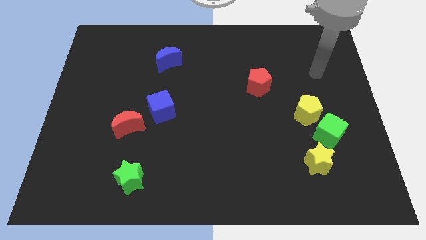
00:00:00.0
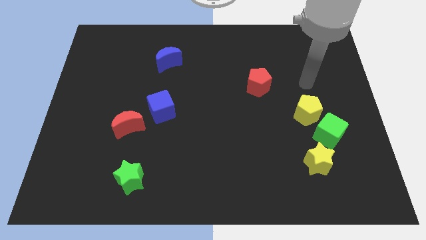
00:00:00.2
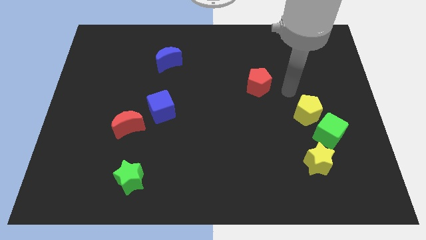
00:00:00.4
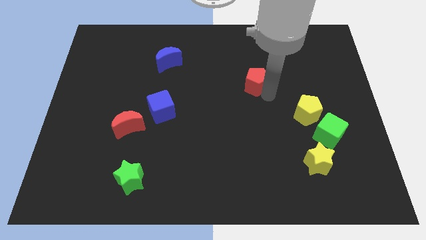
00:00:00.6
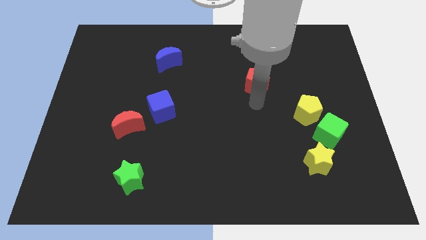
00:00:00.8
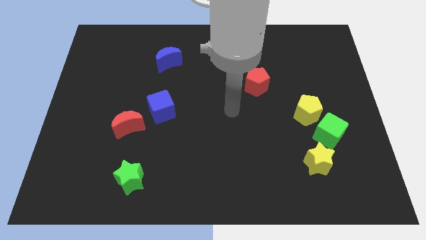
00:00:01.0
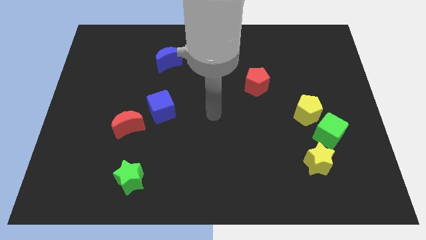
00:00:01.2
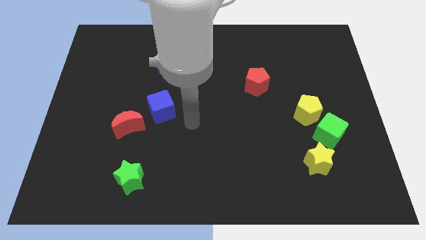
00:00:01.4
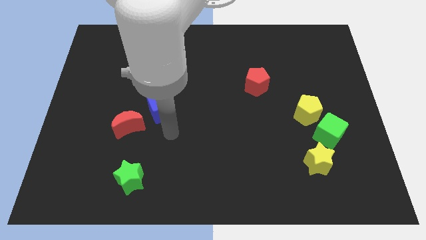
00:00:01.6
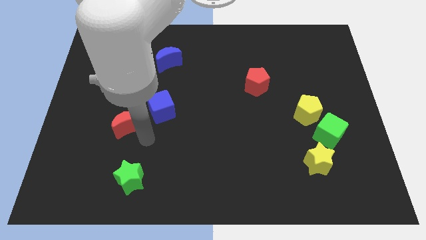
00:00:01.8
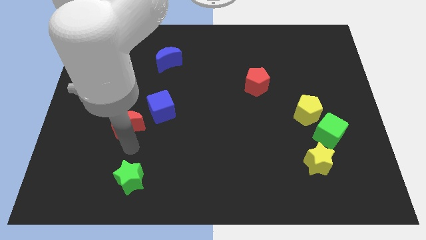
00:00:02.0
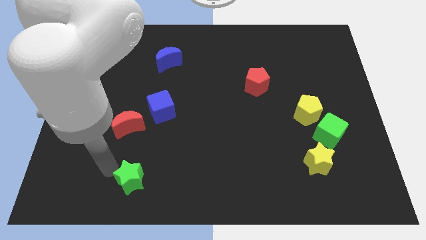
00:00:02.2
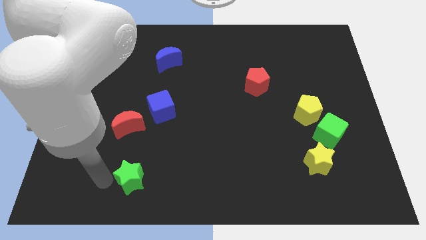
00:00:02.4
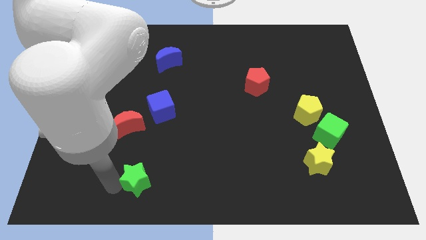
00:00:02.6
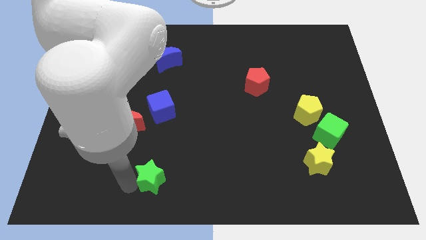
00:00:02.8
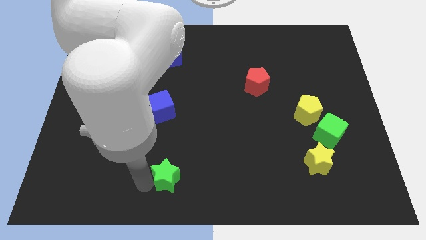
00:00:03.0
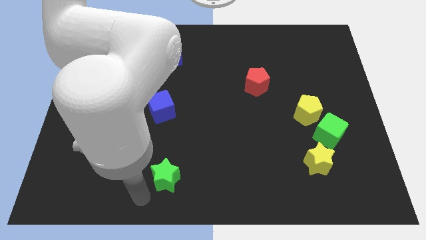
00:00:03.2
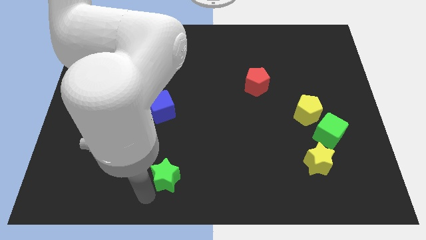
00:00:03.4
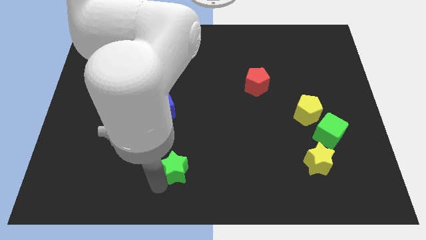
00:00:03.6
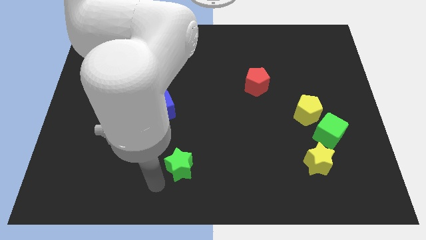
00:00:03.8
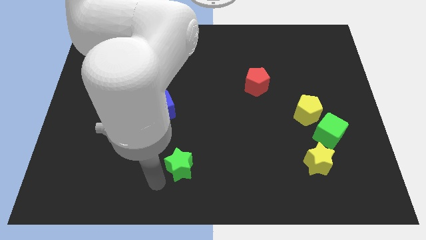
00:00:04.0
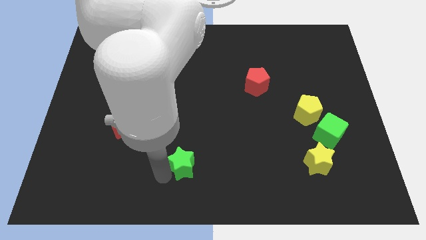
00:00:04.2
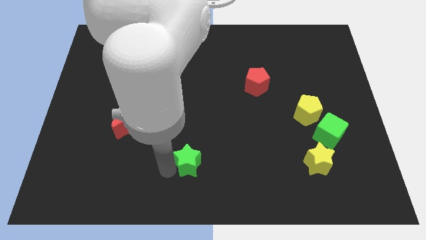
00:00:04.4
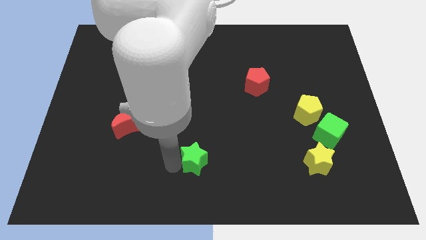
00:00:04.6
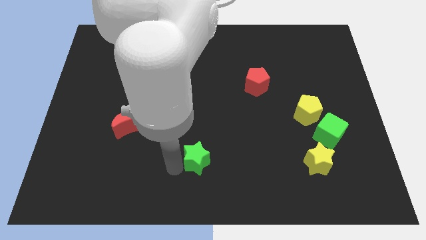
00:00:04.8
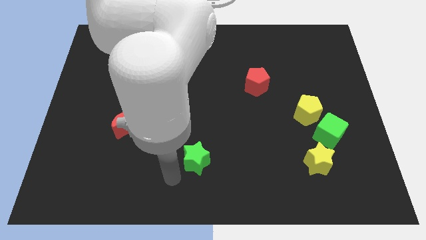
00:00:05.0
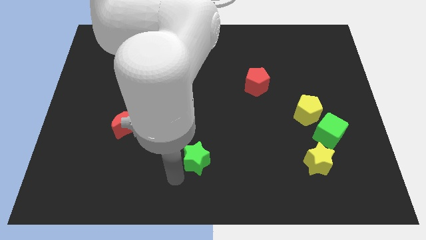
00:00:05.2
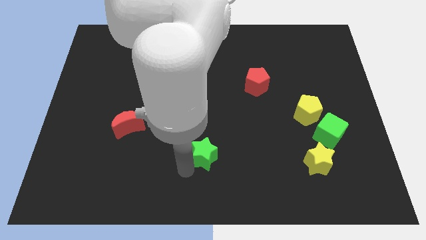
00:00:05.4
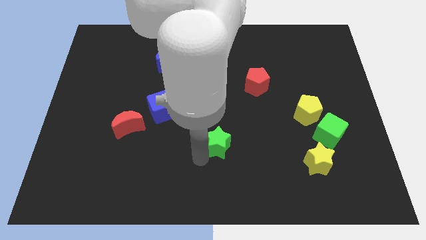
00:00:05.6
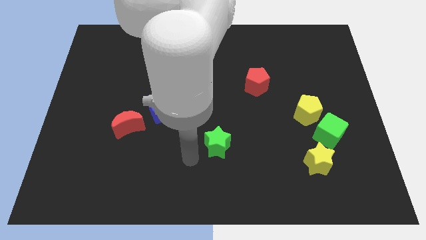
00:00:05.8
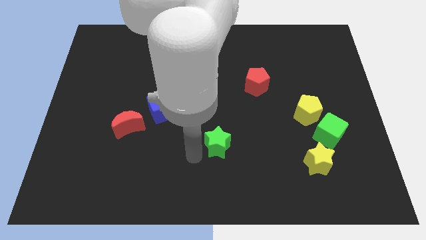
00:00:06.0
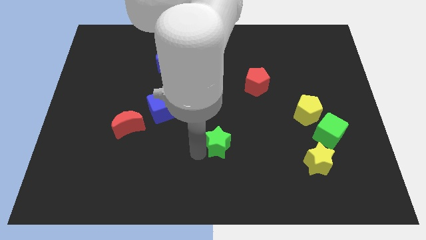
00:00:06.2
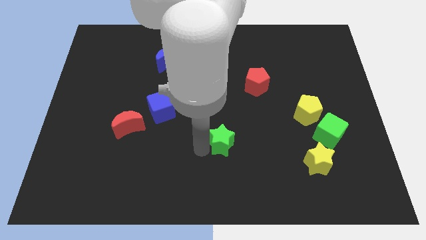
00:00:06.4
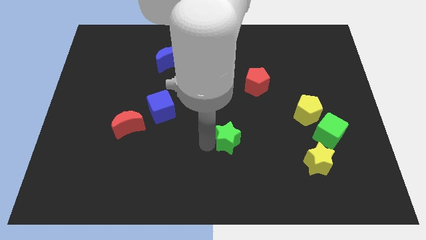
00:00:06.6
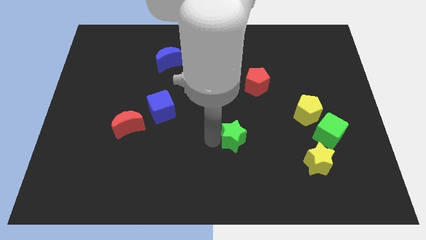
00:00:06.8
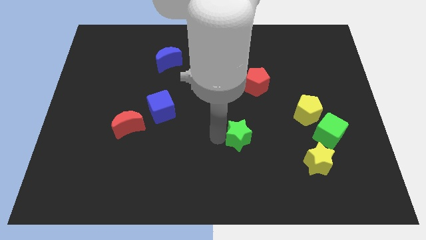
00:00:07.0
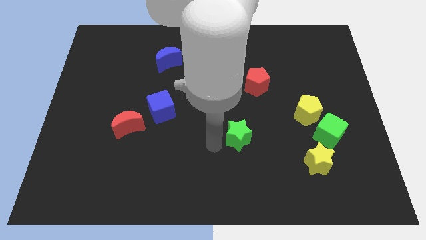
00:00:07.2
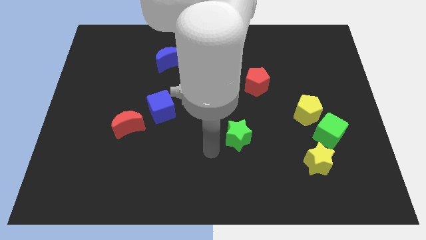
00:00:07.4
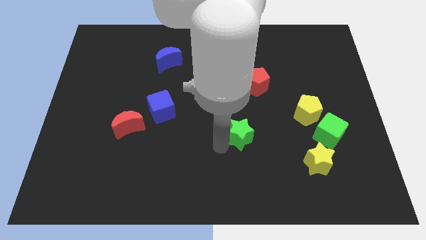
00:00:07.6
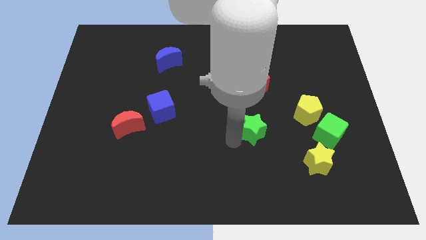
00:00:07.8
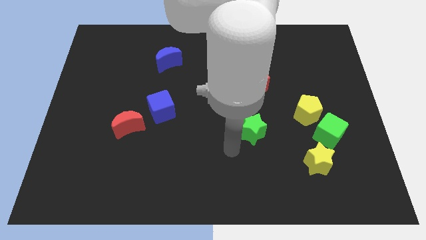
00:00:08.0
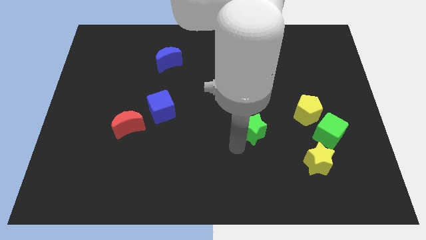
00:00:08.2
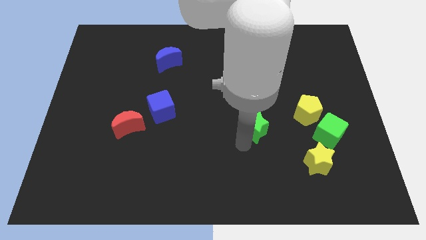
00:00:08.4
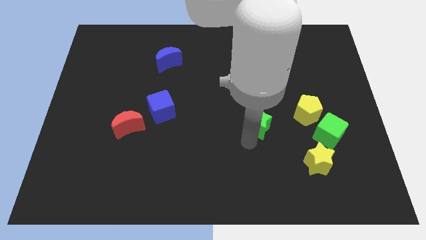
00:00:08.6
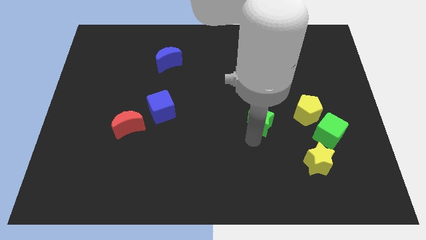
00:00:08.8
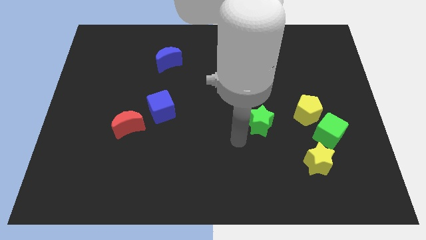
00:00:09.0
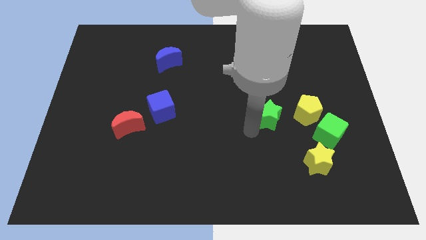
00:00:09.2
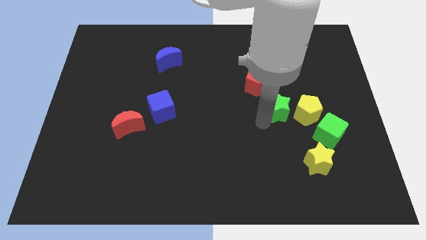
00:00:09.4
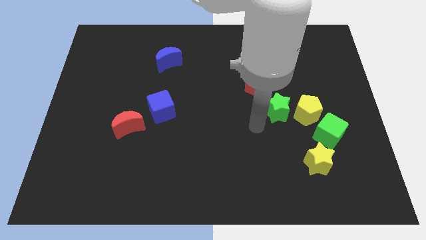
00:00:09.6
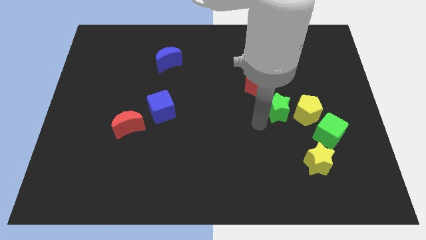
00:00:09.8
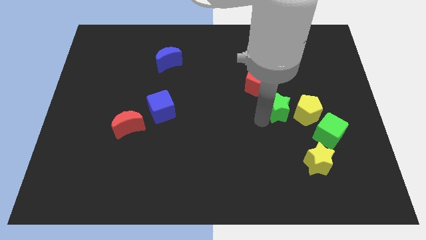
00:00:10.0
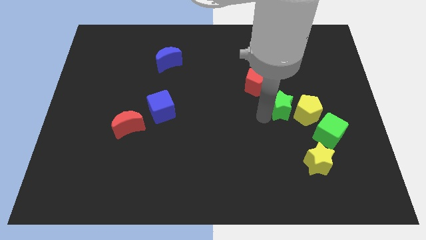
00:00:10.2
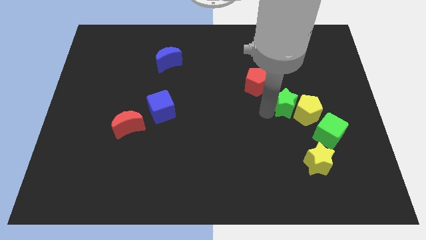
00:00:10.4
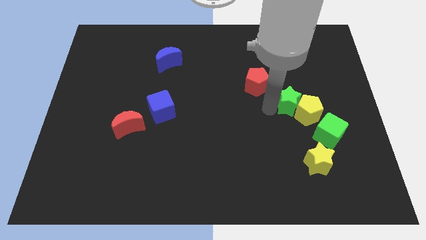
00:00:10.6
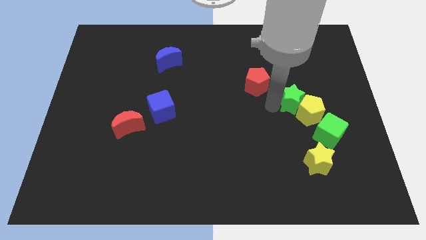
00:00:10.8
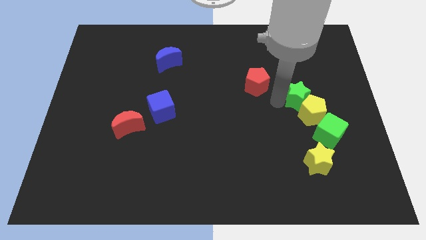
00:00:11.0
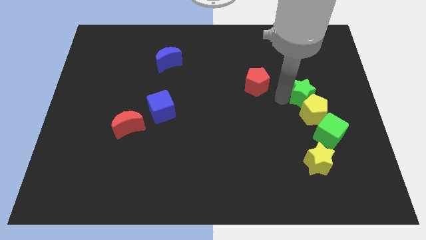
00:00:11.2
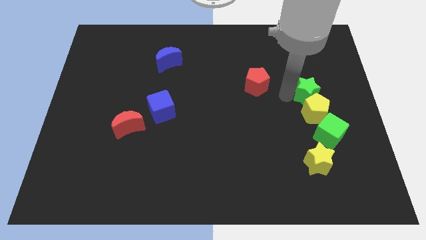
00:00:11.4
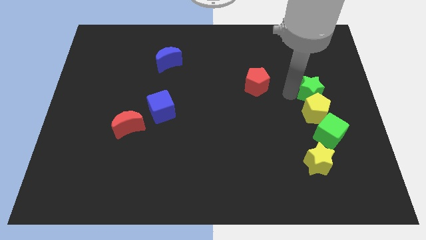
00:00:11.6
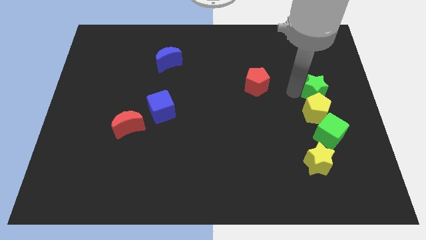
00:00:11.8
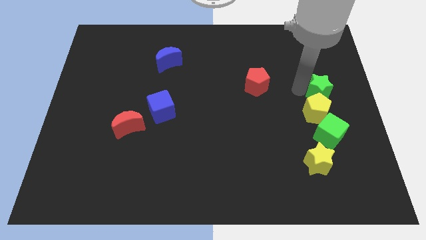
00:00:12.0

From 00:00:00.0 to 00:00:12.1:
move the green star to the right side of the board
